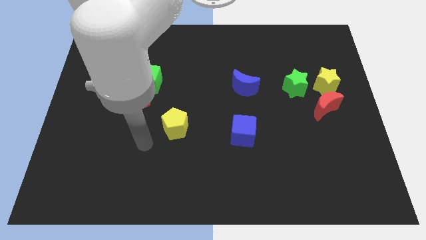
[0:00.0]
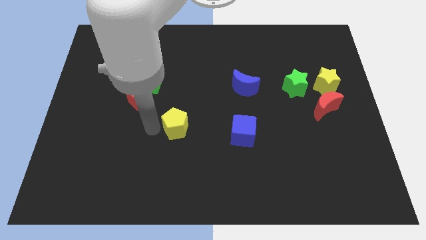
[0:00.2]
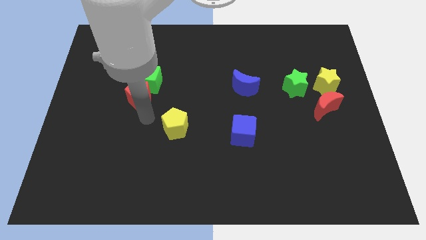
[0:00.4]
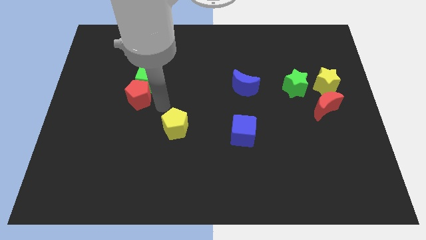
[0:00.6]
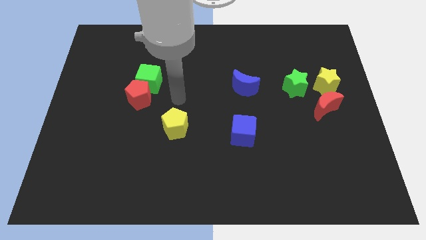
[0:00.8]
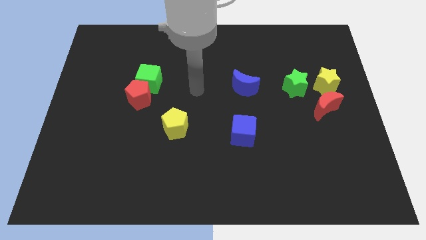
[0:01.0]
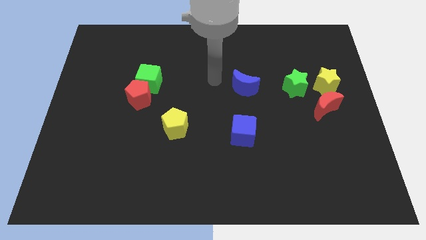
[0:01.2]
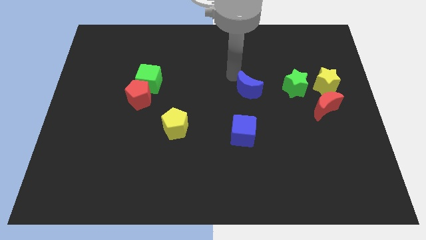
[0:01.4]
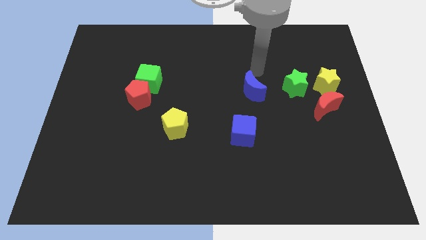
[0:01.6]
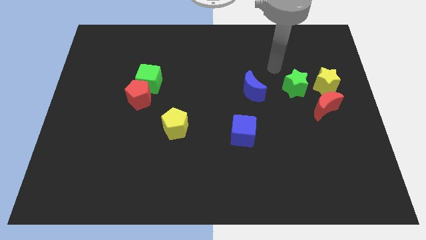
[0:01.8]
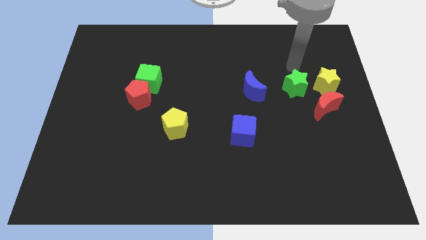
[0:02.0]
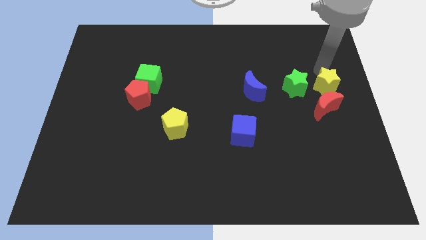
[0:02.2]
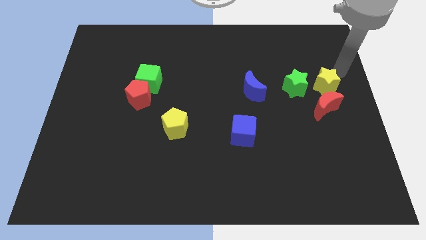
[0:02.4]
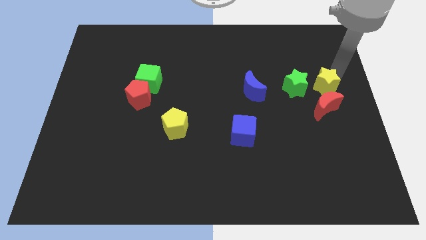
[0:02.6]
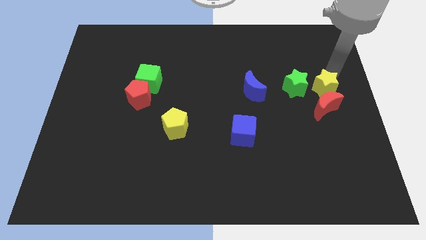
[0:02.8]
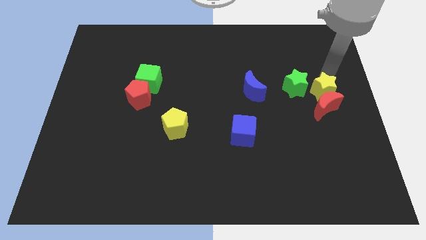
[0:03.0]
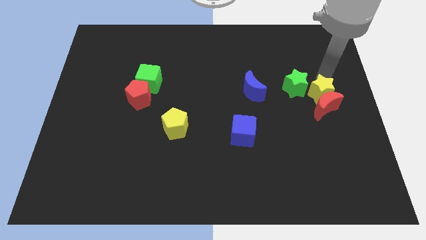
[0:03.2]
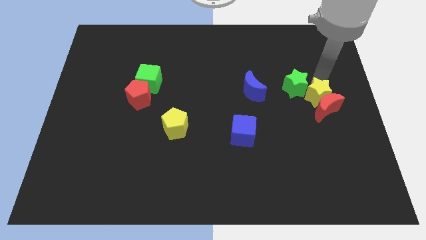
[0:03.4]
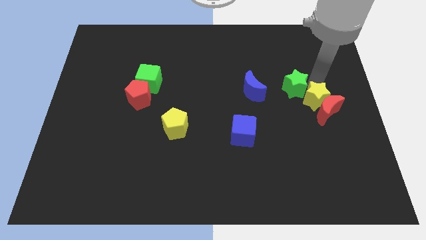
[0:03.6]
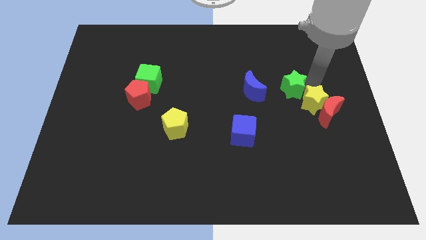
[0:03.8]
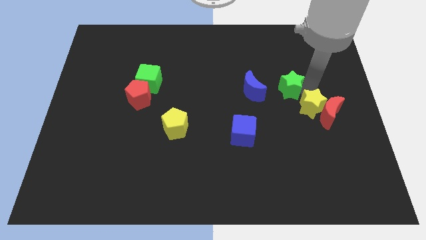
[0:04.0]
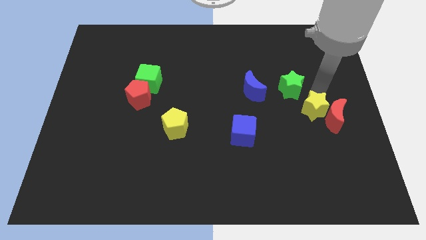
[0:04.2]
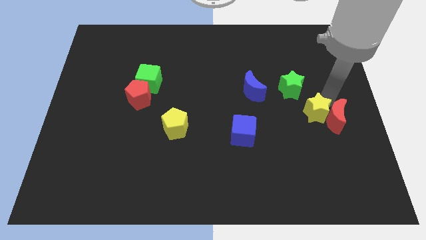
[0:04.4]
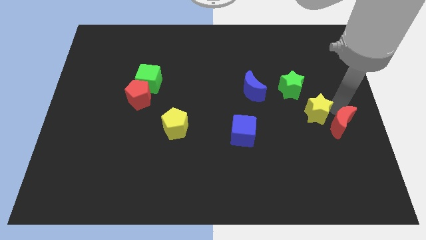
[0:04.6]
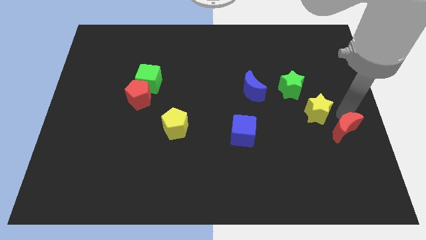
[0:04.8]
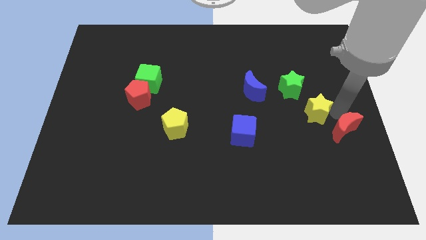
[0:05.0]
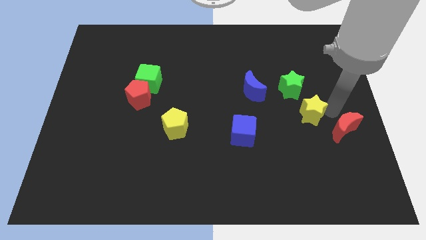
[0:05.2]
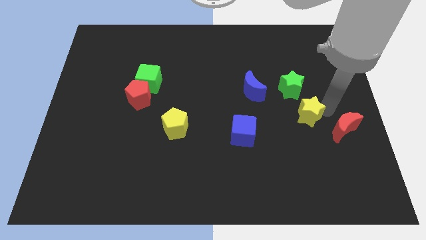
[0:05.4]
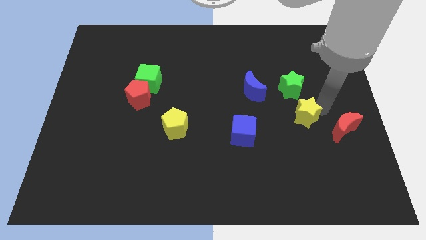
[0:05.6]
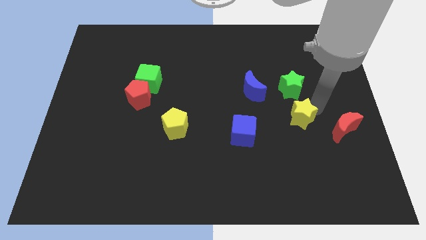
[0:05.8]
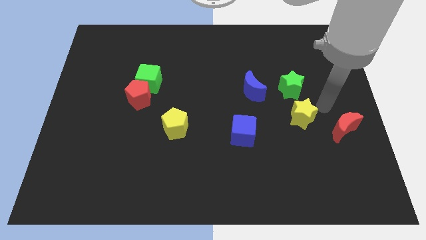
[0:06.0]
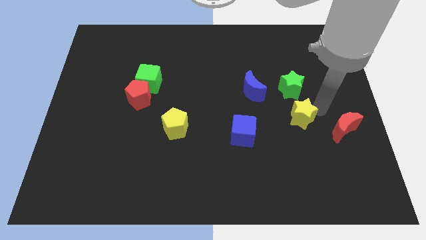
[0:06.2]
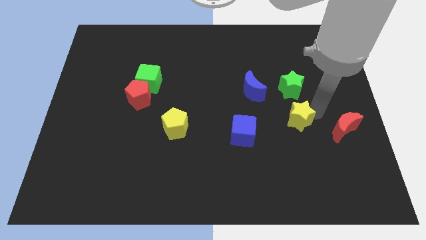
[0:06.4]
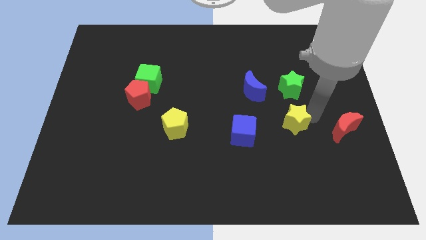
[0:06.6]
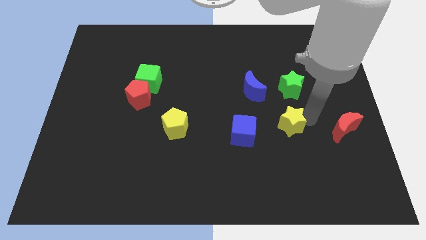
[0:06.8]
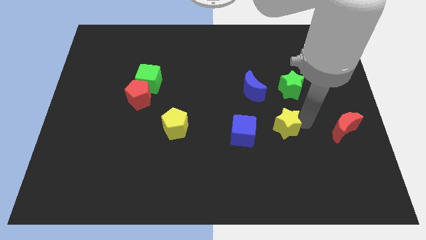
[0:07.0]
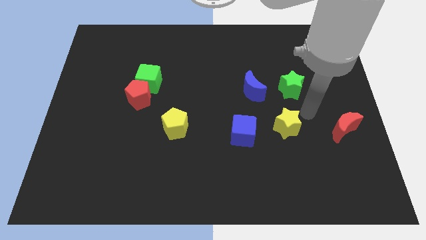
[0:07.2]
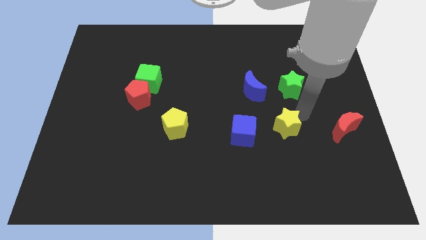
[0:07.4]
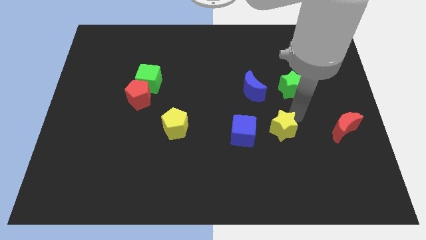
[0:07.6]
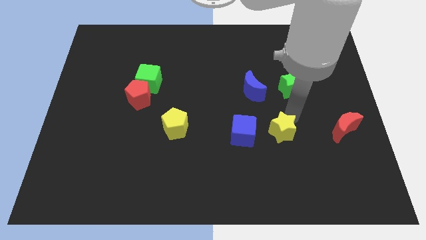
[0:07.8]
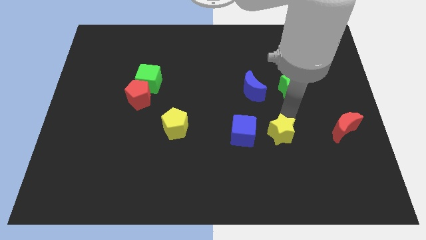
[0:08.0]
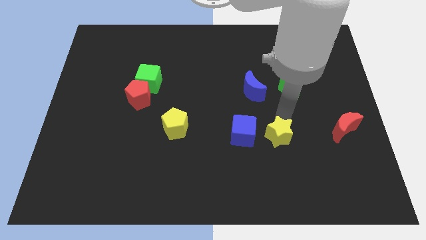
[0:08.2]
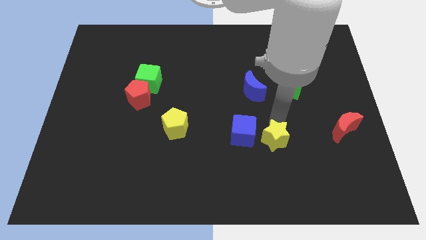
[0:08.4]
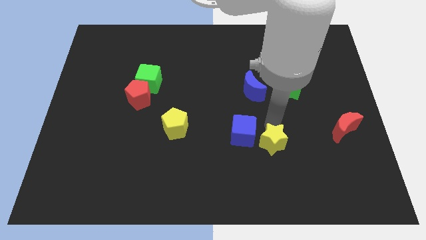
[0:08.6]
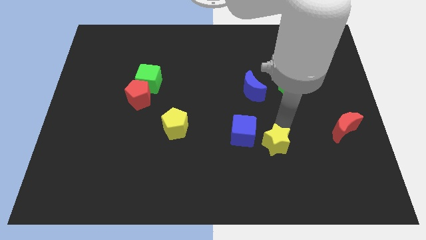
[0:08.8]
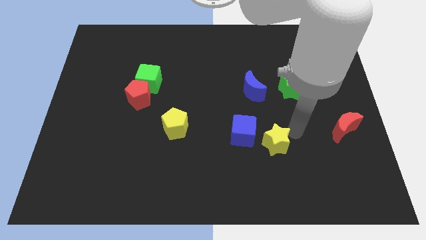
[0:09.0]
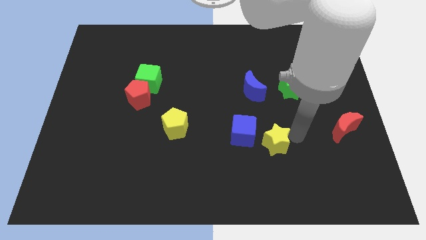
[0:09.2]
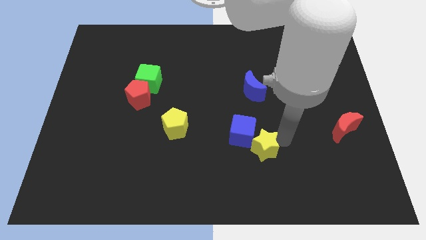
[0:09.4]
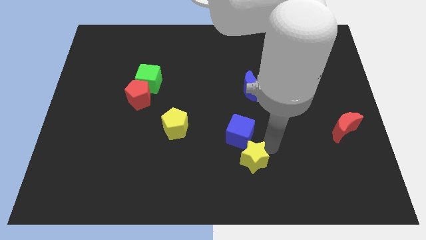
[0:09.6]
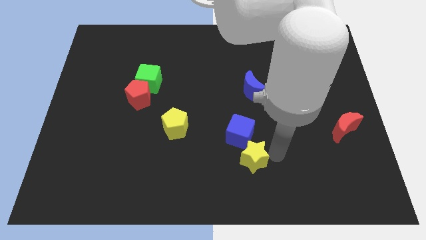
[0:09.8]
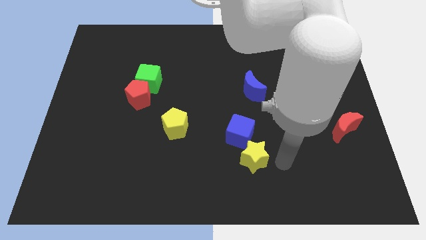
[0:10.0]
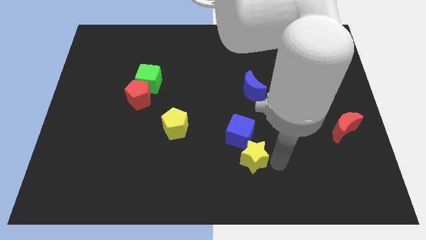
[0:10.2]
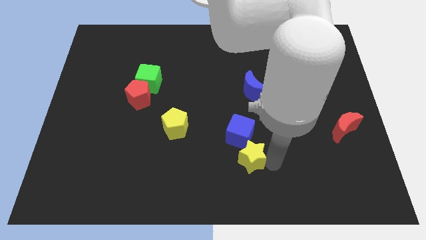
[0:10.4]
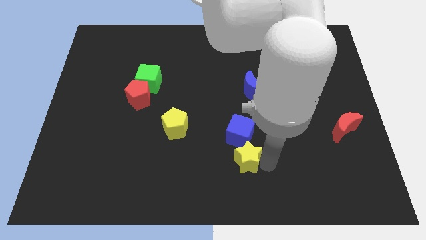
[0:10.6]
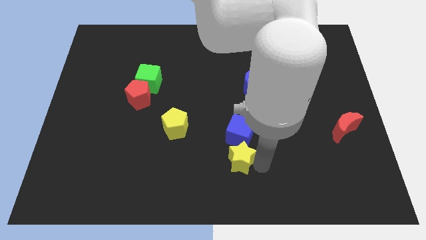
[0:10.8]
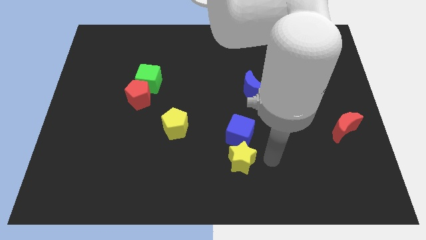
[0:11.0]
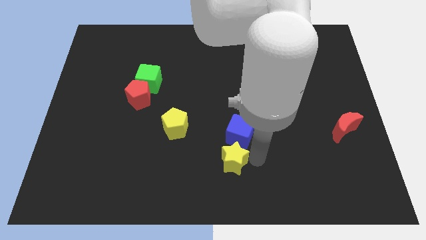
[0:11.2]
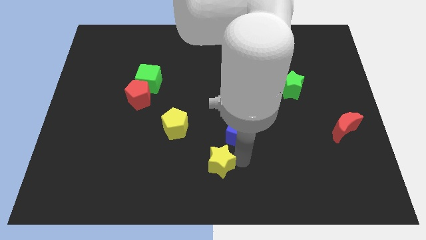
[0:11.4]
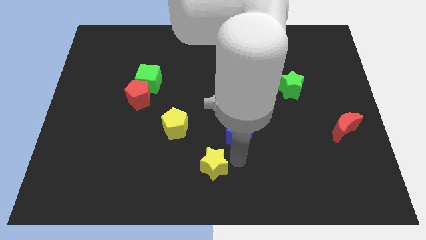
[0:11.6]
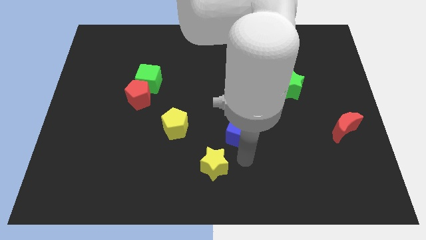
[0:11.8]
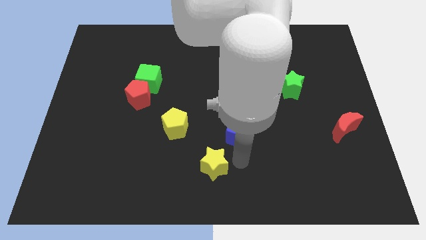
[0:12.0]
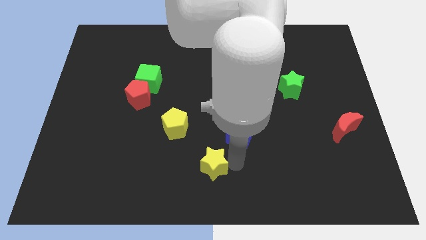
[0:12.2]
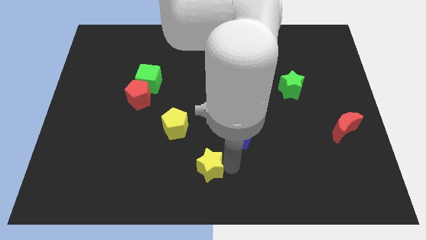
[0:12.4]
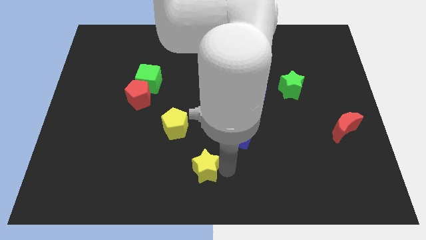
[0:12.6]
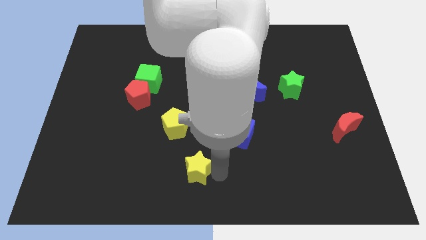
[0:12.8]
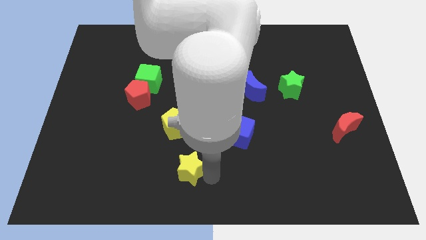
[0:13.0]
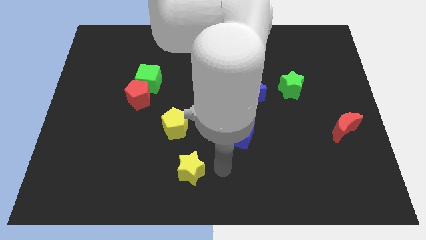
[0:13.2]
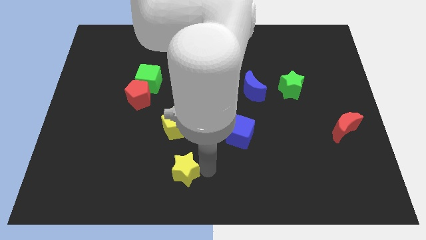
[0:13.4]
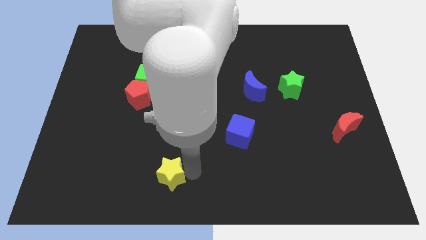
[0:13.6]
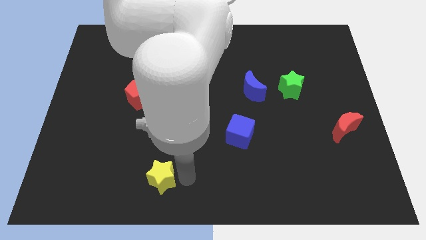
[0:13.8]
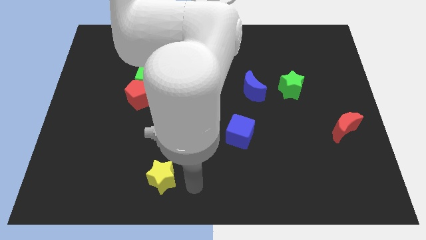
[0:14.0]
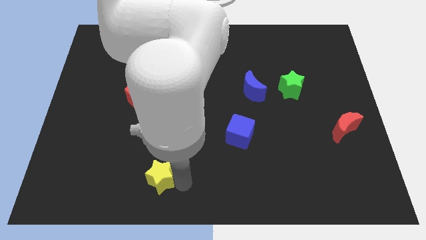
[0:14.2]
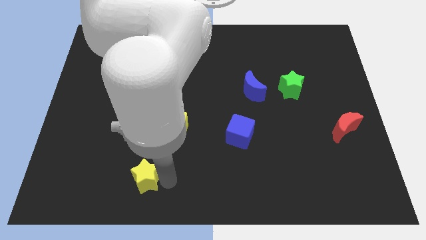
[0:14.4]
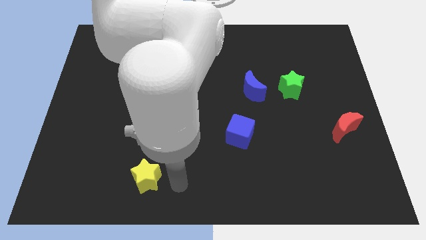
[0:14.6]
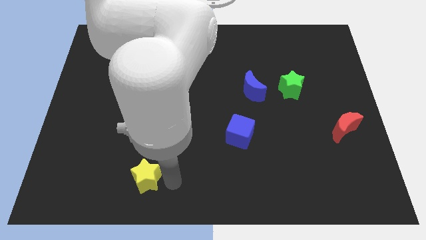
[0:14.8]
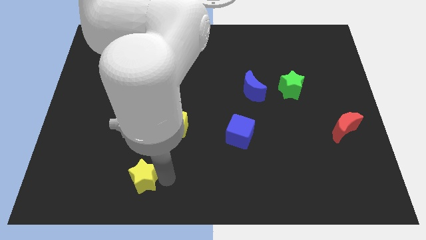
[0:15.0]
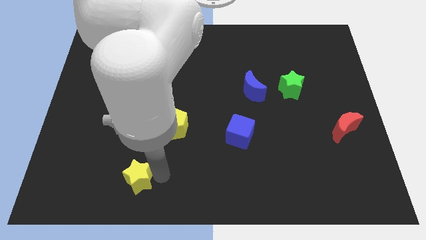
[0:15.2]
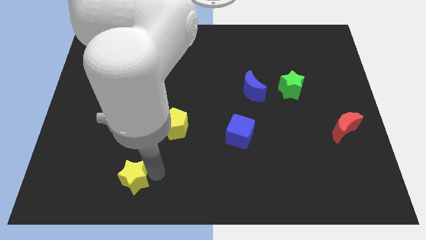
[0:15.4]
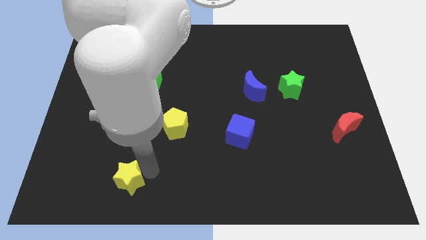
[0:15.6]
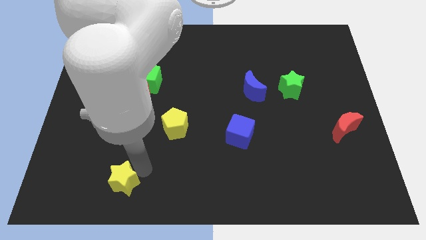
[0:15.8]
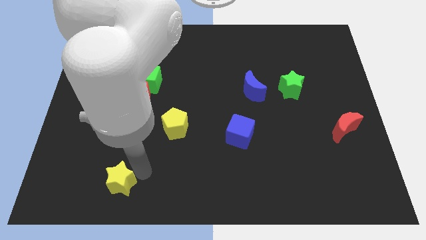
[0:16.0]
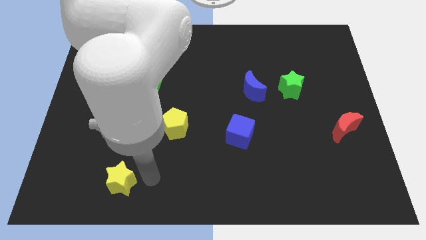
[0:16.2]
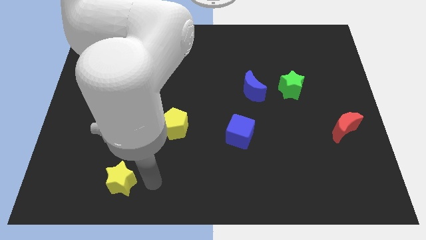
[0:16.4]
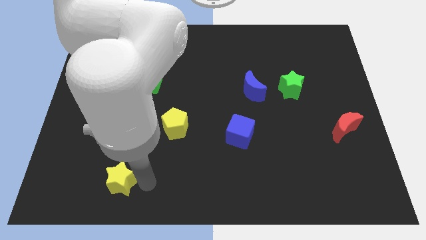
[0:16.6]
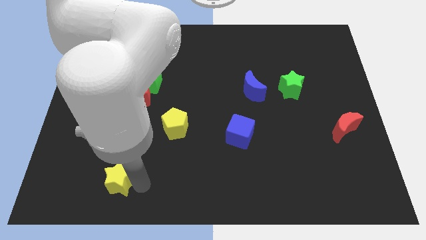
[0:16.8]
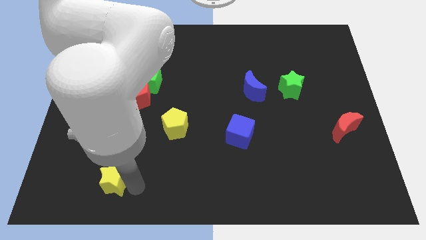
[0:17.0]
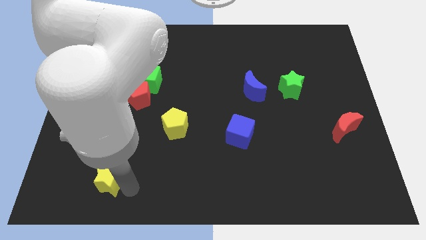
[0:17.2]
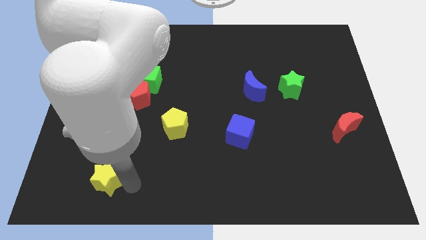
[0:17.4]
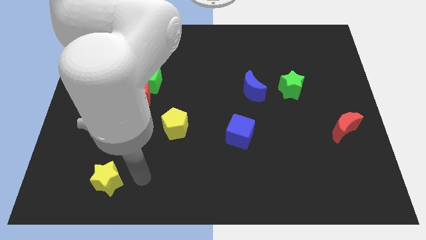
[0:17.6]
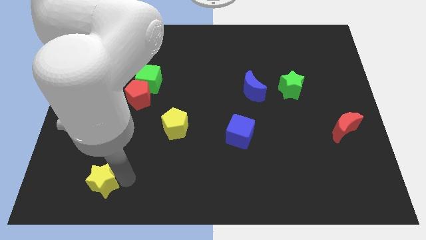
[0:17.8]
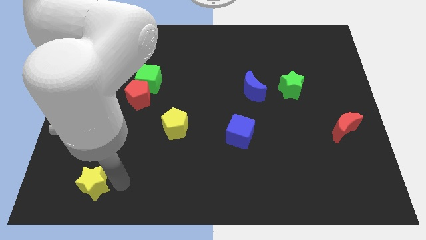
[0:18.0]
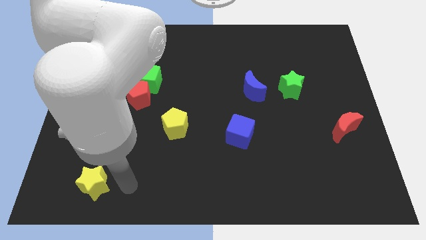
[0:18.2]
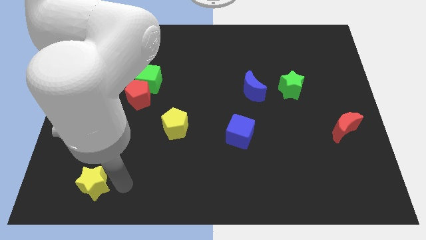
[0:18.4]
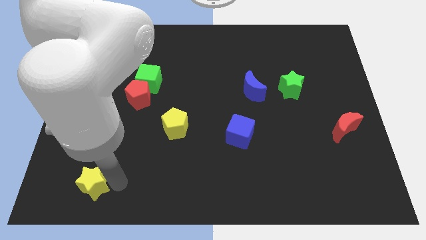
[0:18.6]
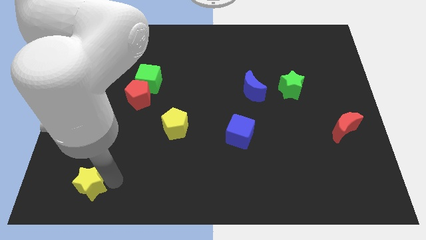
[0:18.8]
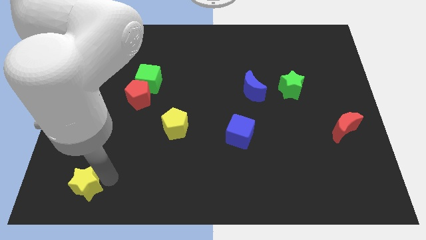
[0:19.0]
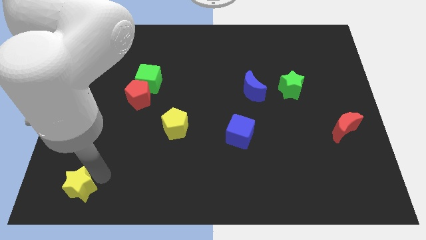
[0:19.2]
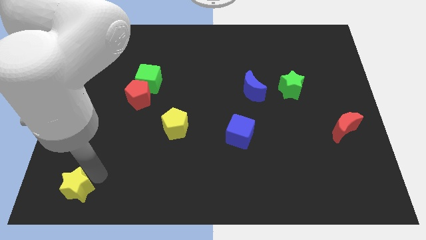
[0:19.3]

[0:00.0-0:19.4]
put the yellow star to the bottom left
